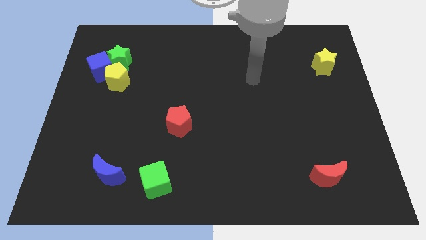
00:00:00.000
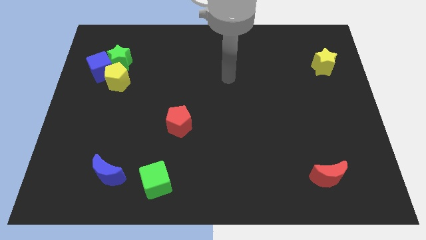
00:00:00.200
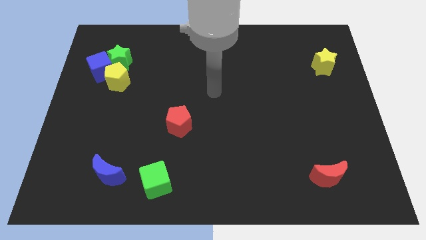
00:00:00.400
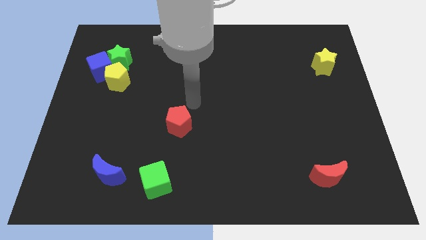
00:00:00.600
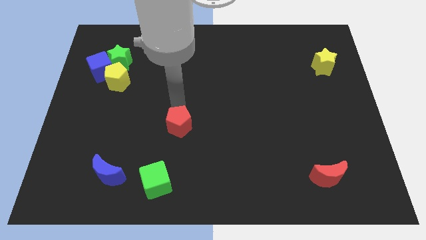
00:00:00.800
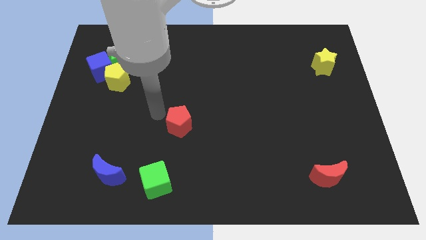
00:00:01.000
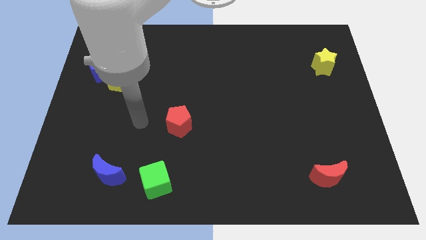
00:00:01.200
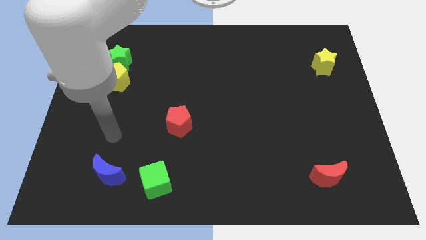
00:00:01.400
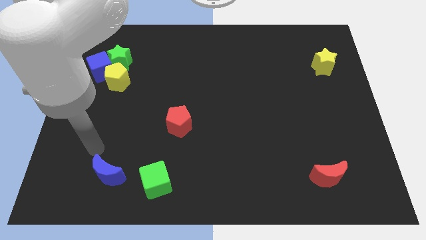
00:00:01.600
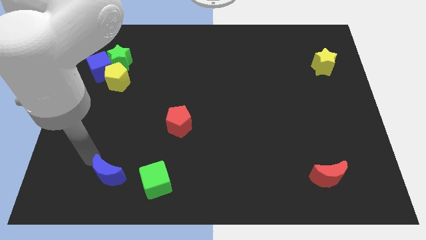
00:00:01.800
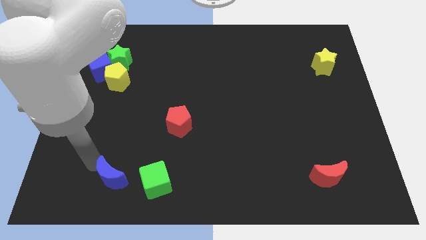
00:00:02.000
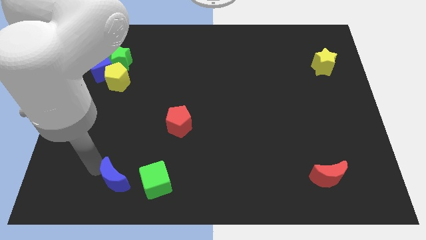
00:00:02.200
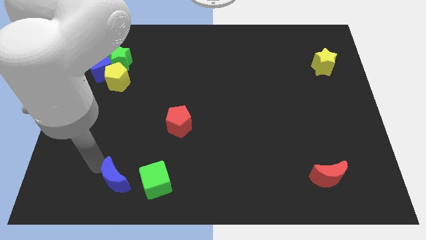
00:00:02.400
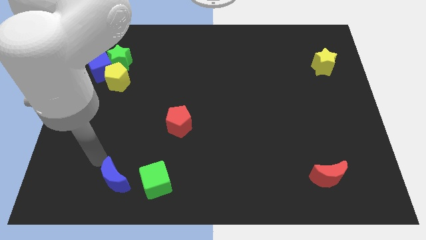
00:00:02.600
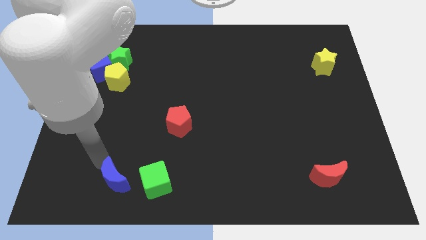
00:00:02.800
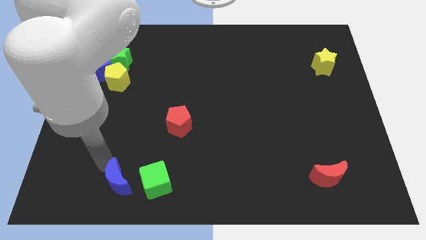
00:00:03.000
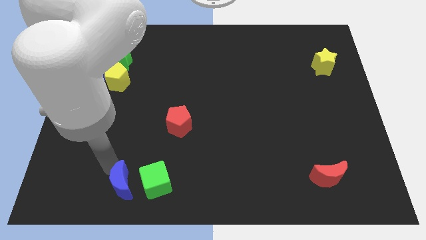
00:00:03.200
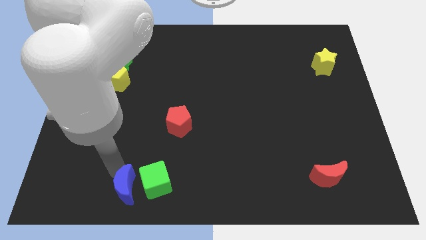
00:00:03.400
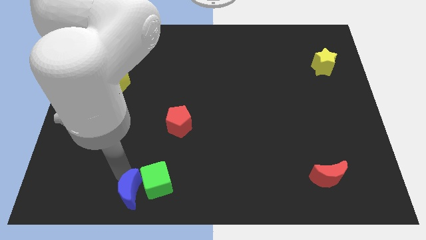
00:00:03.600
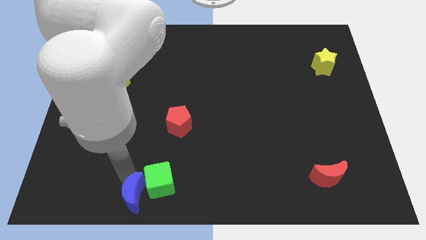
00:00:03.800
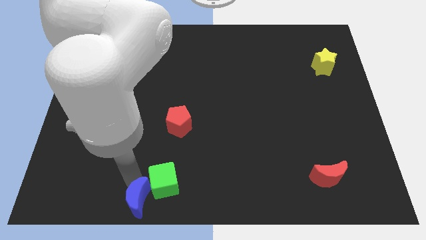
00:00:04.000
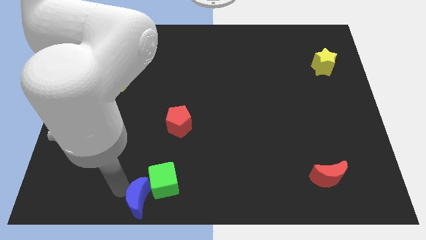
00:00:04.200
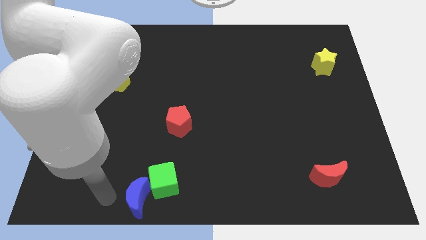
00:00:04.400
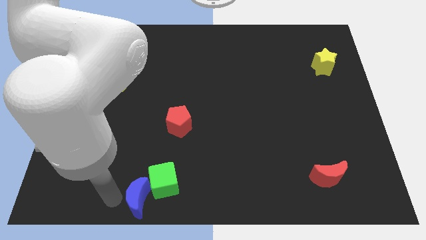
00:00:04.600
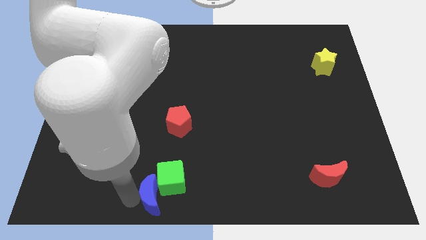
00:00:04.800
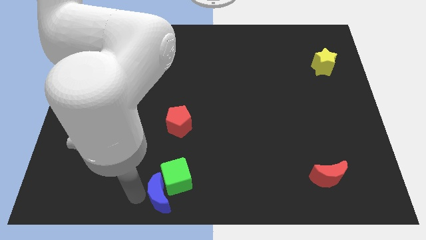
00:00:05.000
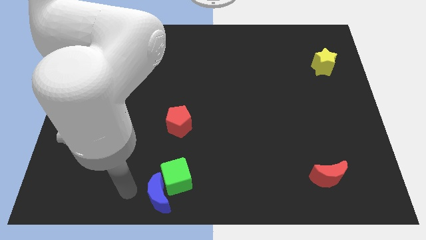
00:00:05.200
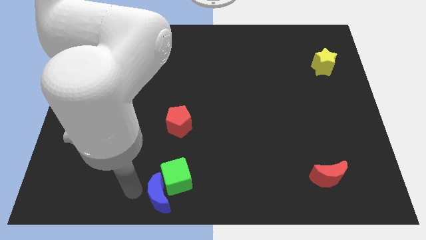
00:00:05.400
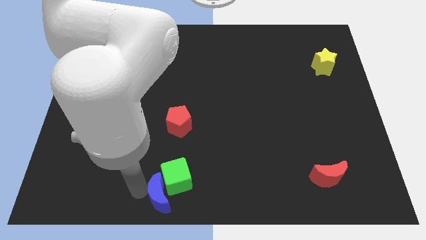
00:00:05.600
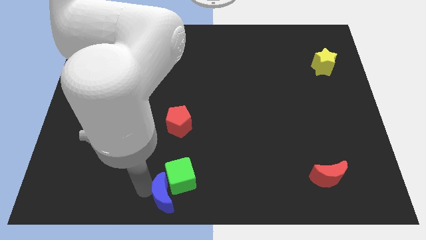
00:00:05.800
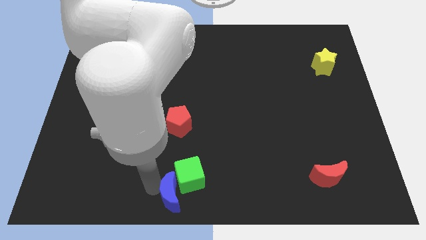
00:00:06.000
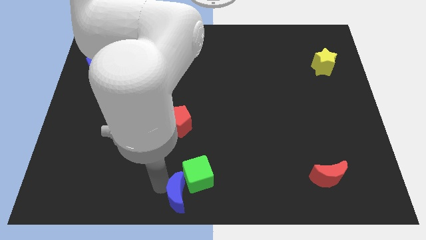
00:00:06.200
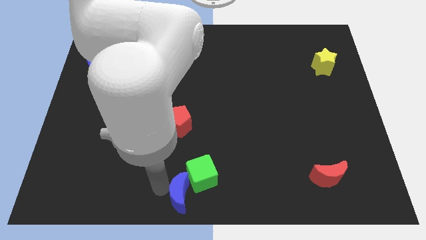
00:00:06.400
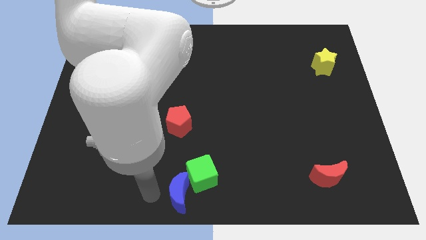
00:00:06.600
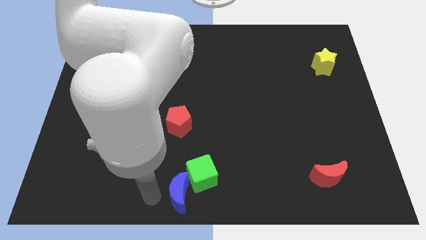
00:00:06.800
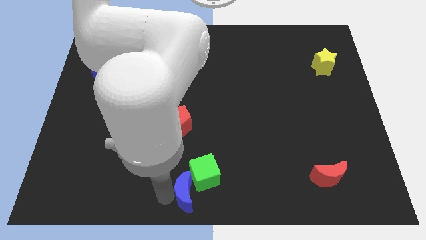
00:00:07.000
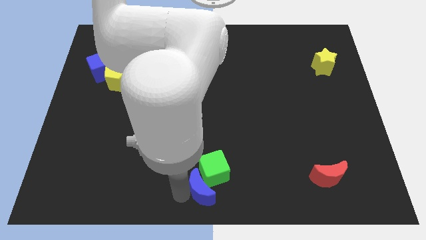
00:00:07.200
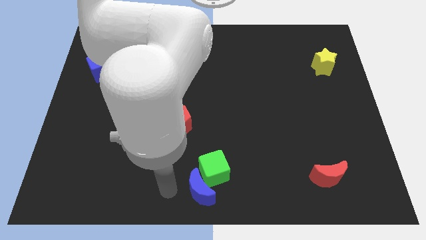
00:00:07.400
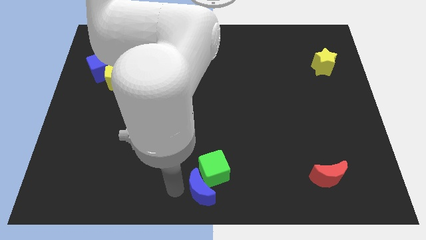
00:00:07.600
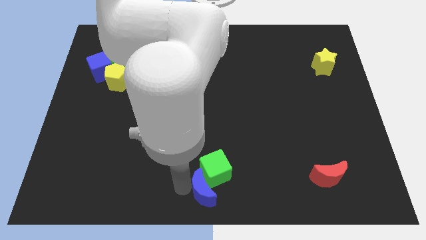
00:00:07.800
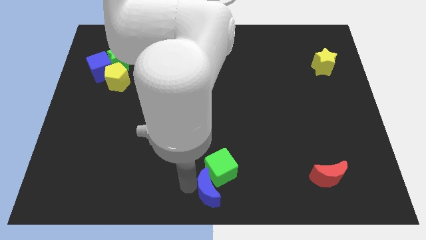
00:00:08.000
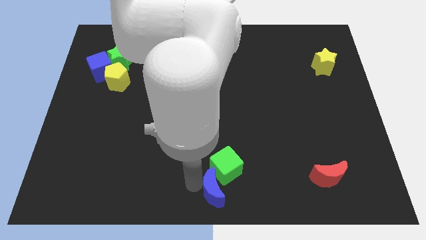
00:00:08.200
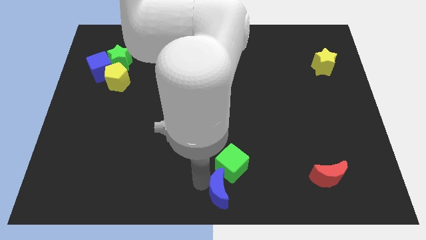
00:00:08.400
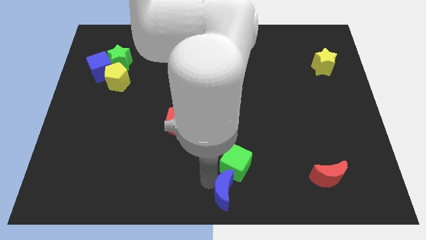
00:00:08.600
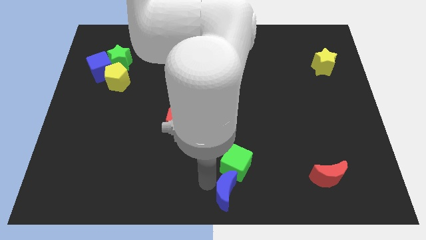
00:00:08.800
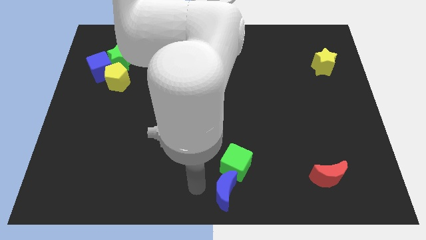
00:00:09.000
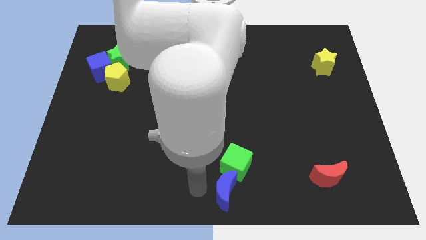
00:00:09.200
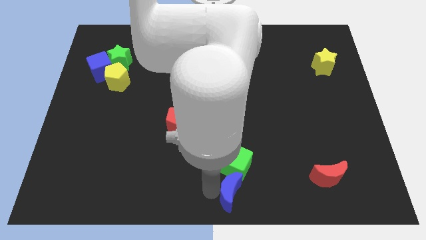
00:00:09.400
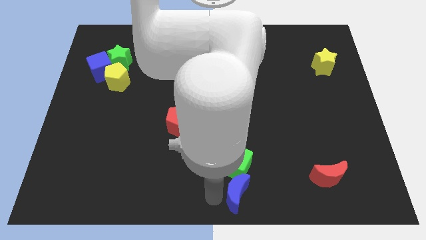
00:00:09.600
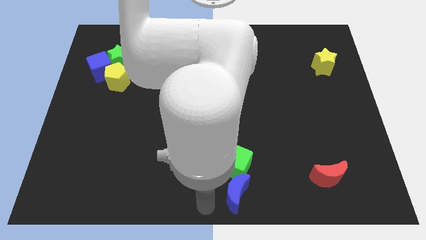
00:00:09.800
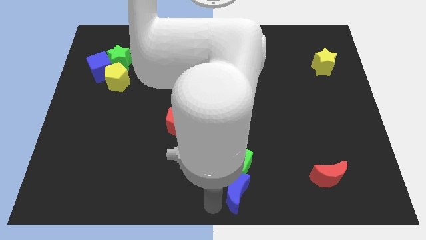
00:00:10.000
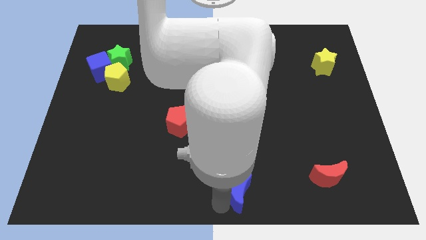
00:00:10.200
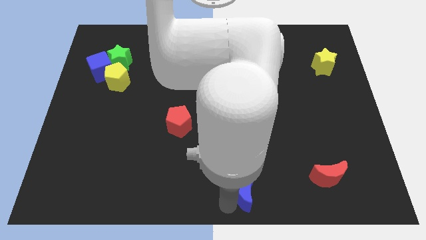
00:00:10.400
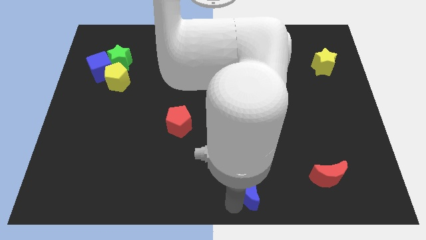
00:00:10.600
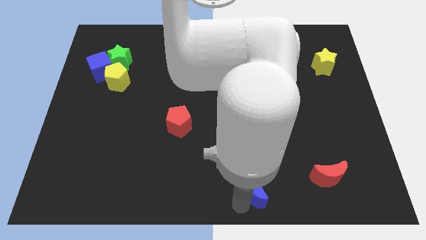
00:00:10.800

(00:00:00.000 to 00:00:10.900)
push the blue moon just left of the red moon

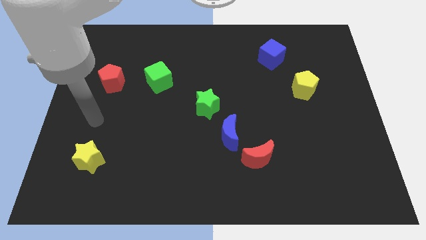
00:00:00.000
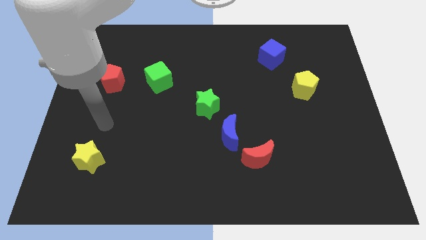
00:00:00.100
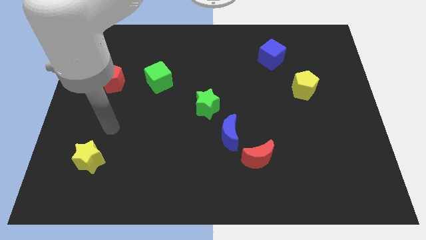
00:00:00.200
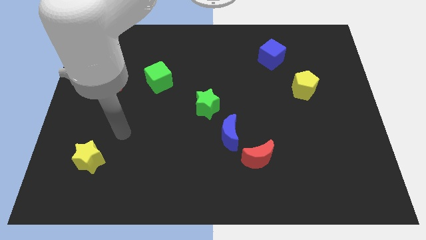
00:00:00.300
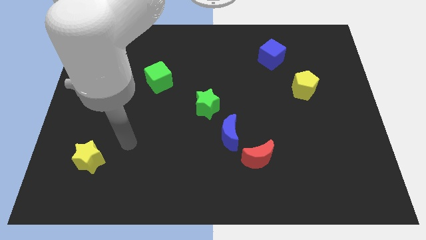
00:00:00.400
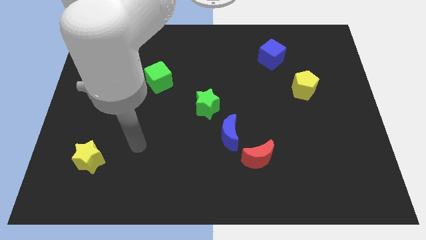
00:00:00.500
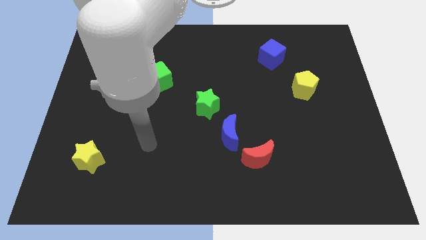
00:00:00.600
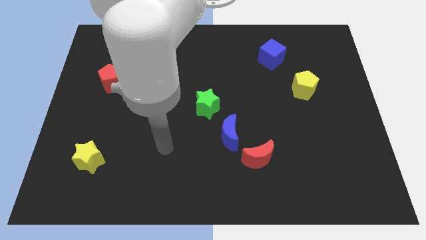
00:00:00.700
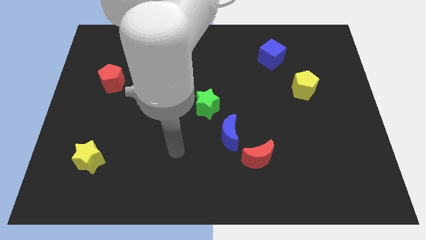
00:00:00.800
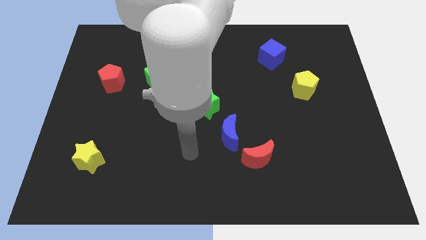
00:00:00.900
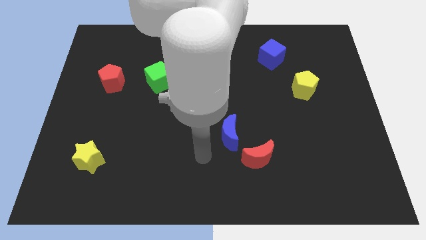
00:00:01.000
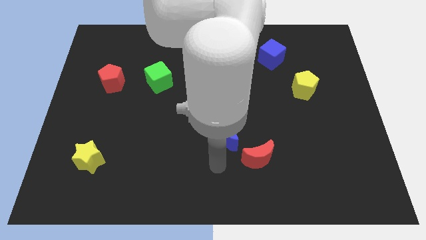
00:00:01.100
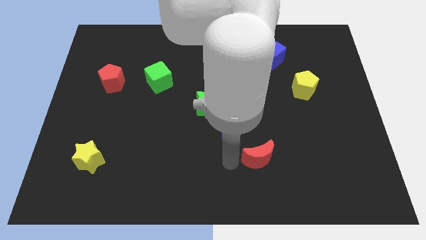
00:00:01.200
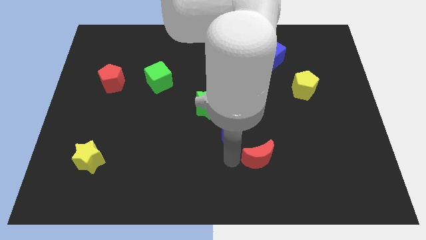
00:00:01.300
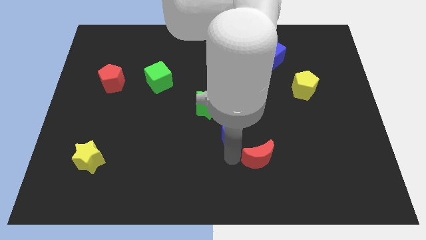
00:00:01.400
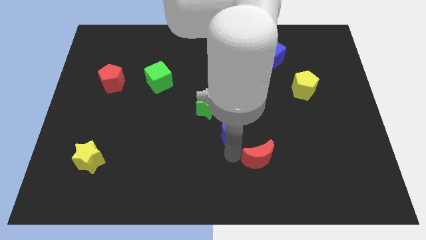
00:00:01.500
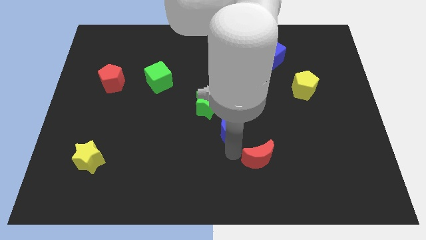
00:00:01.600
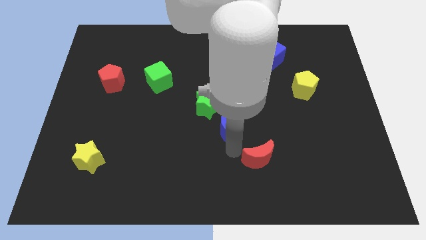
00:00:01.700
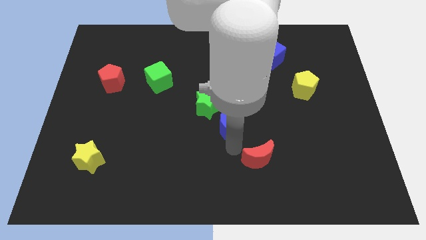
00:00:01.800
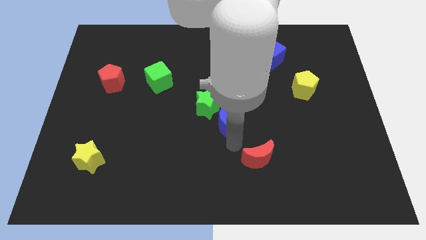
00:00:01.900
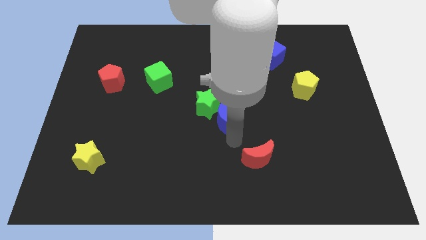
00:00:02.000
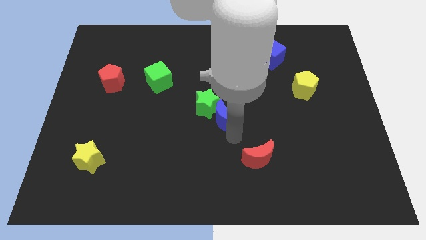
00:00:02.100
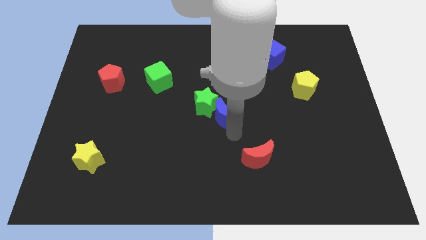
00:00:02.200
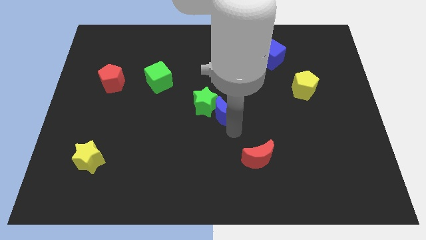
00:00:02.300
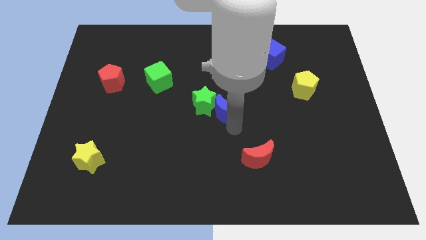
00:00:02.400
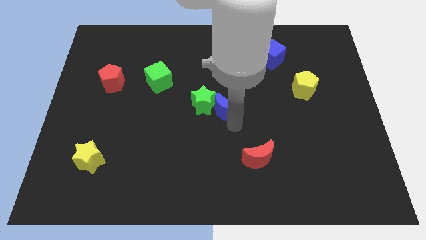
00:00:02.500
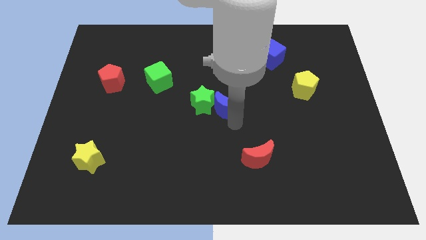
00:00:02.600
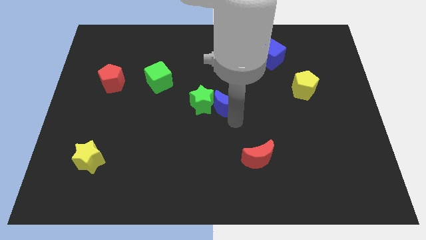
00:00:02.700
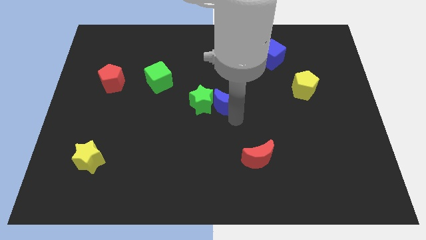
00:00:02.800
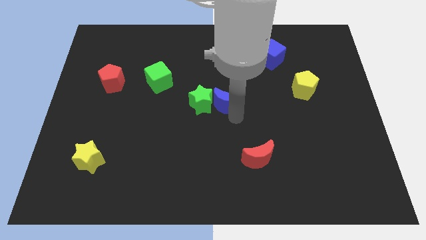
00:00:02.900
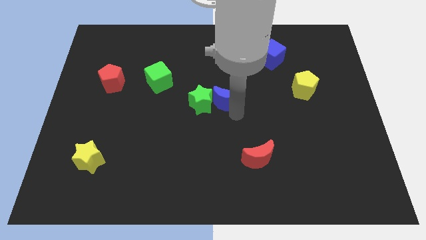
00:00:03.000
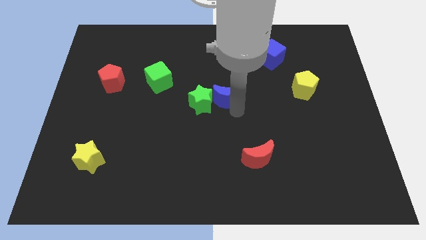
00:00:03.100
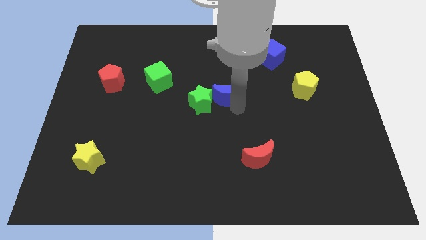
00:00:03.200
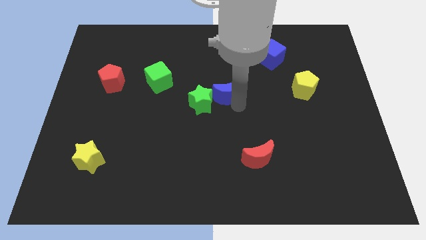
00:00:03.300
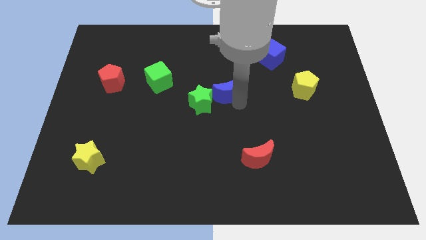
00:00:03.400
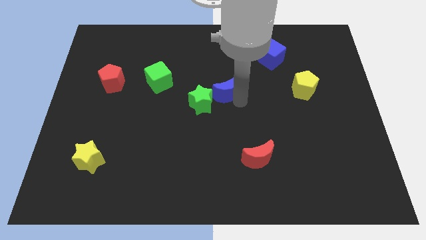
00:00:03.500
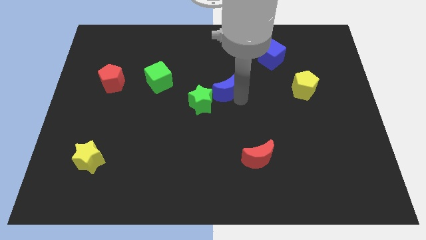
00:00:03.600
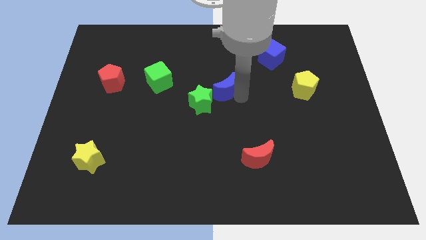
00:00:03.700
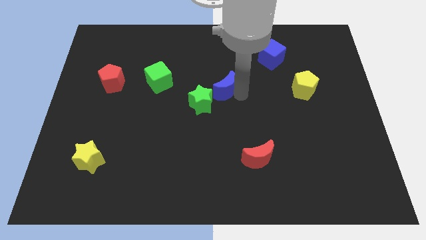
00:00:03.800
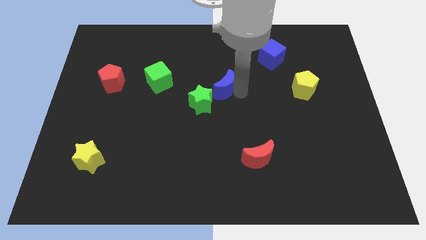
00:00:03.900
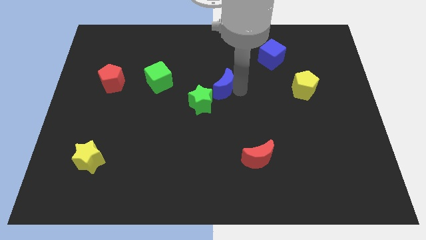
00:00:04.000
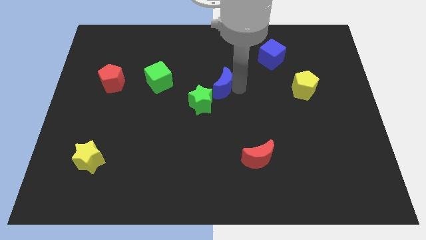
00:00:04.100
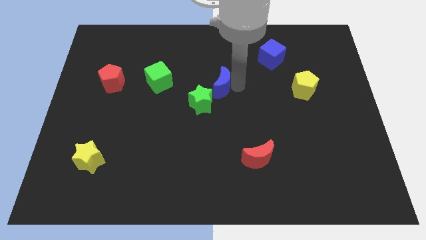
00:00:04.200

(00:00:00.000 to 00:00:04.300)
move the blue moon to the right side of the green cube
